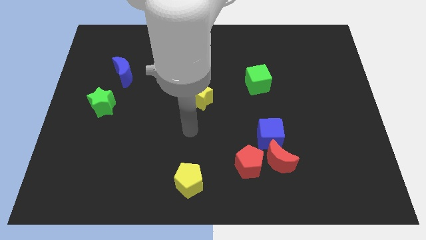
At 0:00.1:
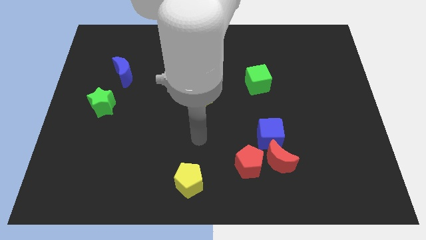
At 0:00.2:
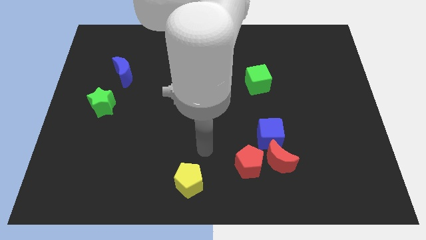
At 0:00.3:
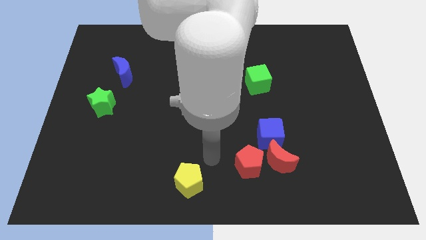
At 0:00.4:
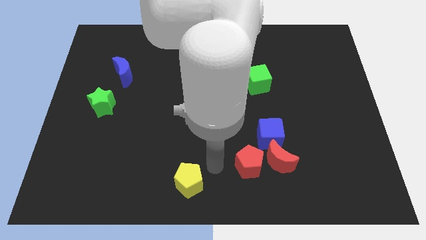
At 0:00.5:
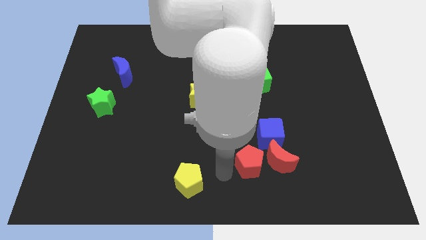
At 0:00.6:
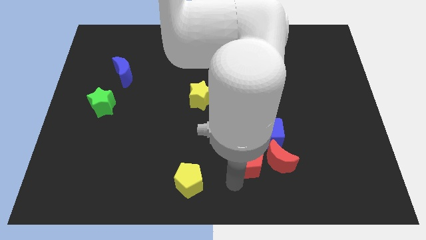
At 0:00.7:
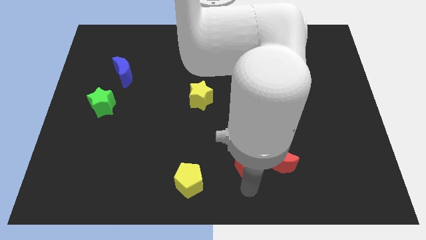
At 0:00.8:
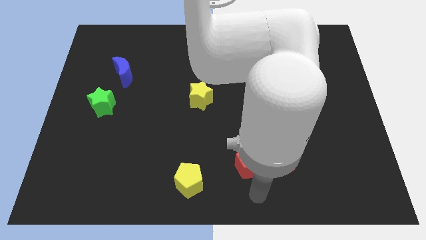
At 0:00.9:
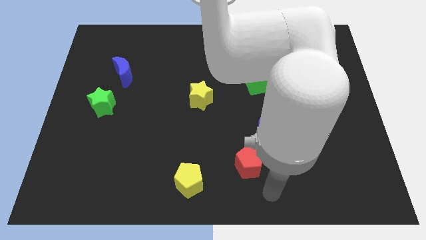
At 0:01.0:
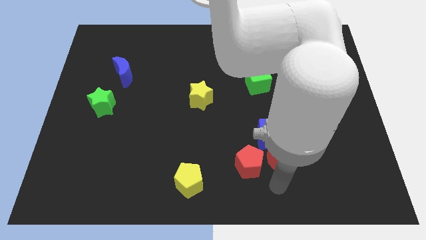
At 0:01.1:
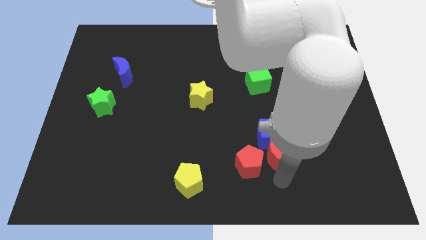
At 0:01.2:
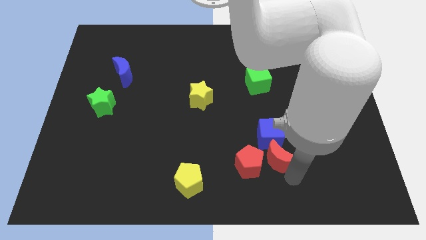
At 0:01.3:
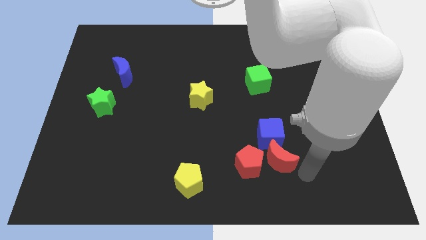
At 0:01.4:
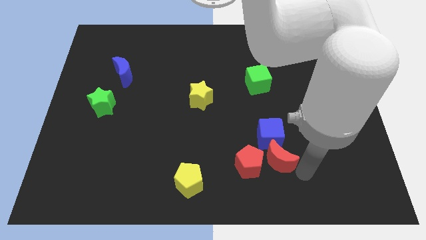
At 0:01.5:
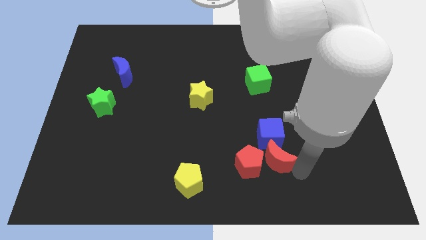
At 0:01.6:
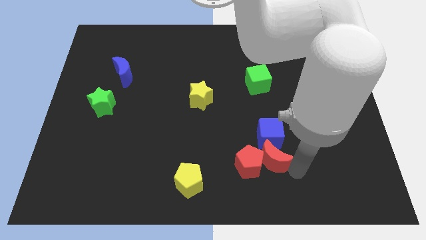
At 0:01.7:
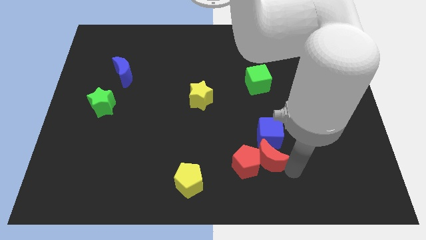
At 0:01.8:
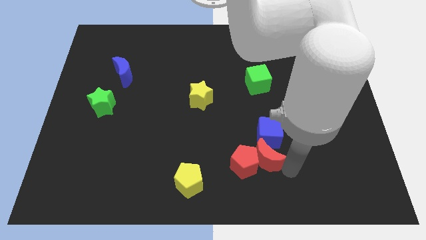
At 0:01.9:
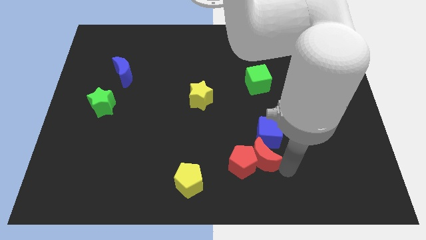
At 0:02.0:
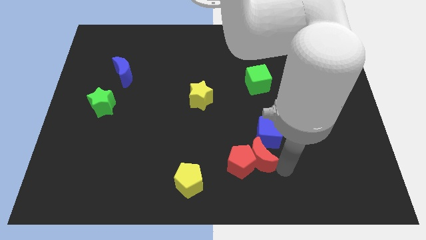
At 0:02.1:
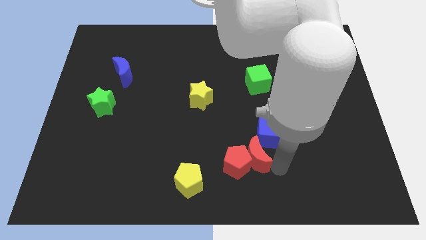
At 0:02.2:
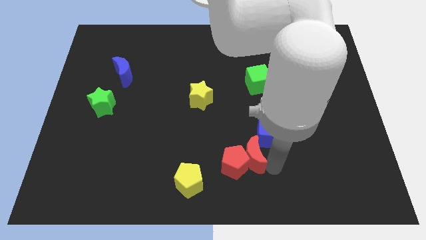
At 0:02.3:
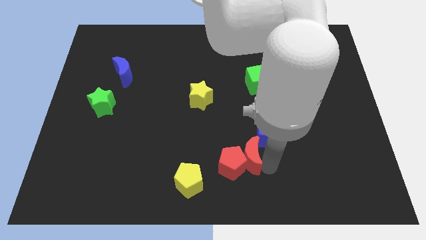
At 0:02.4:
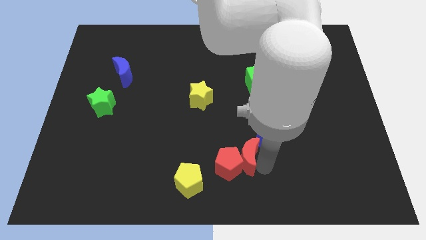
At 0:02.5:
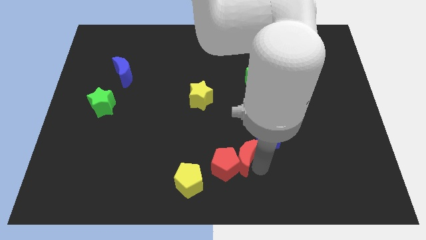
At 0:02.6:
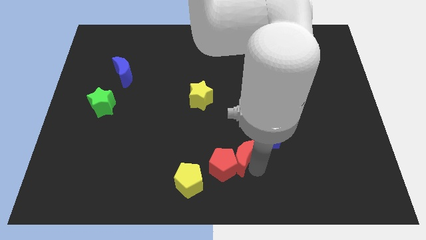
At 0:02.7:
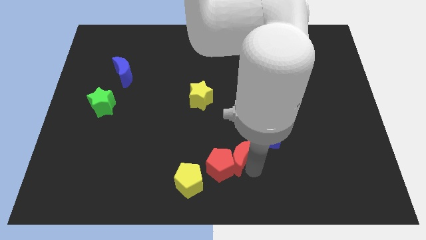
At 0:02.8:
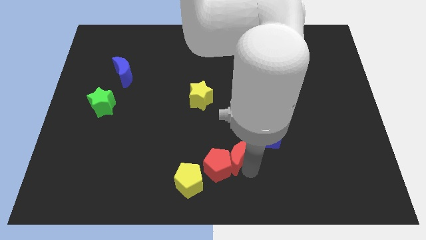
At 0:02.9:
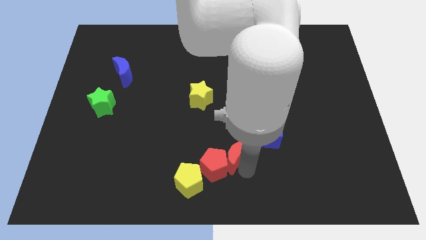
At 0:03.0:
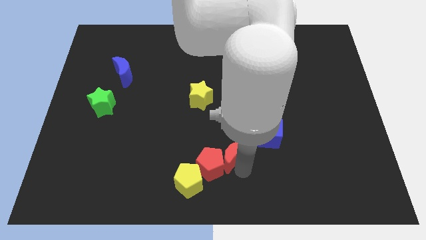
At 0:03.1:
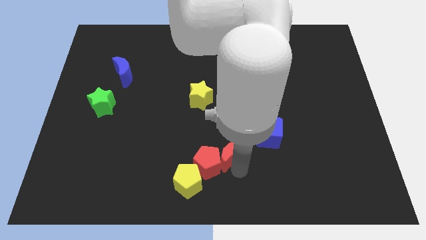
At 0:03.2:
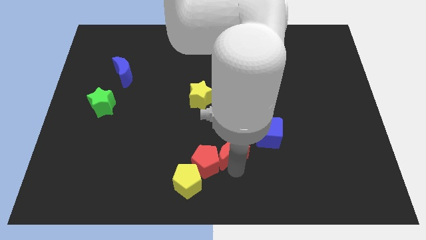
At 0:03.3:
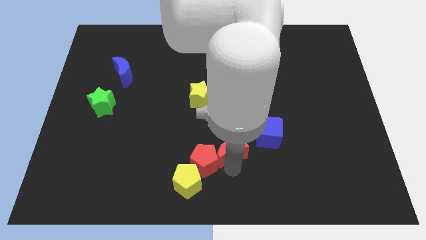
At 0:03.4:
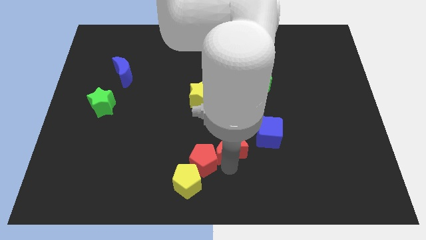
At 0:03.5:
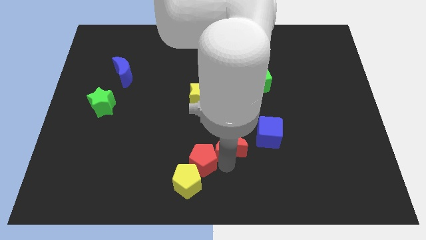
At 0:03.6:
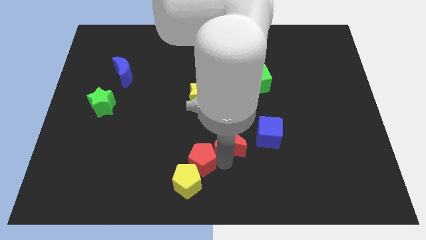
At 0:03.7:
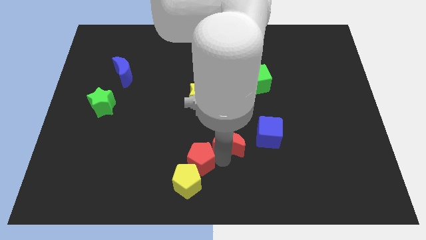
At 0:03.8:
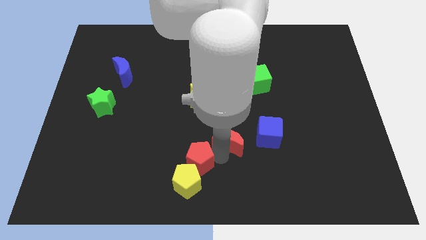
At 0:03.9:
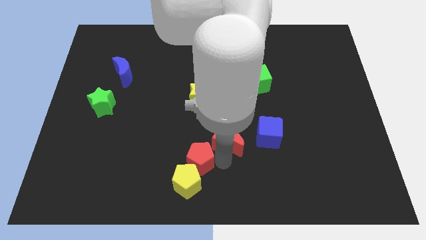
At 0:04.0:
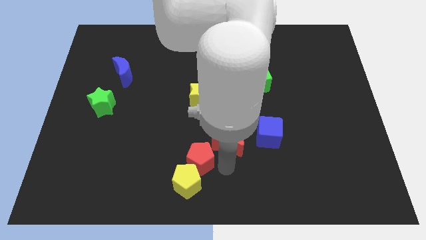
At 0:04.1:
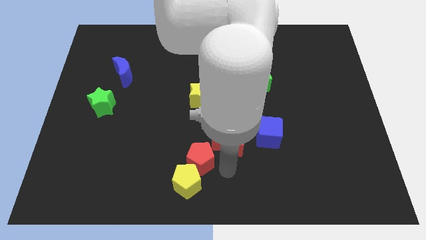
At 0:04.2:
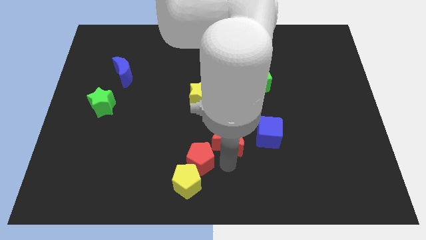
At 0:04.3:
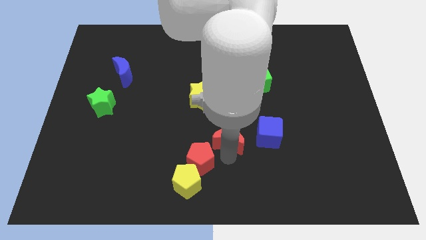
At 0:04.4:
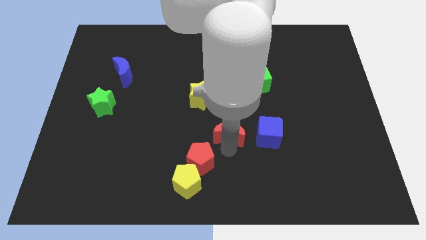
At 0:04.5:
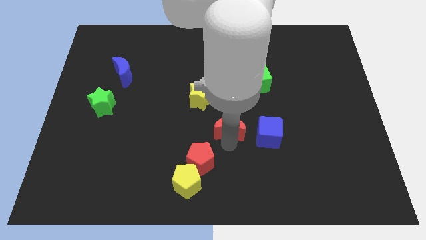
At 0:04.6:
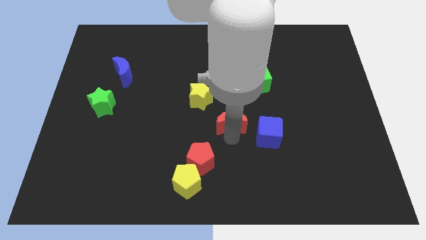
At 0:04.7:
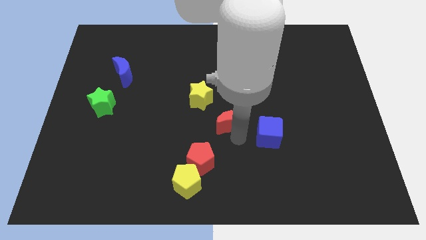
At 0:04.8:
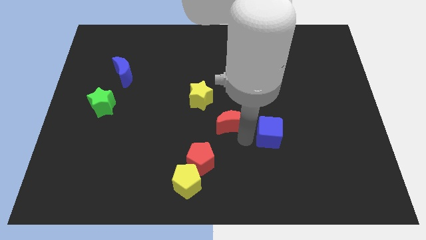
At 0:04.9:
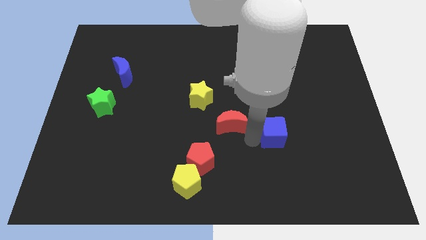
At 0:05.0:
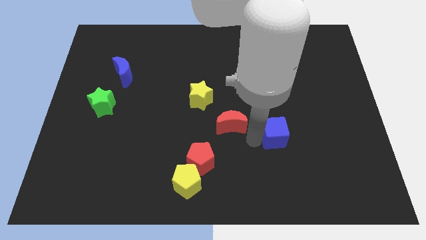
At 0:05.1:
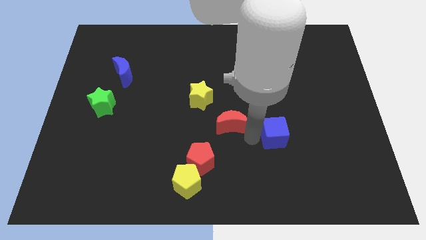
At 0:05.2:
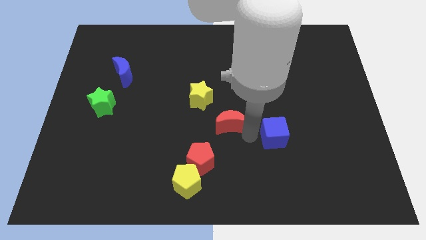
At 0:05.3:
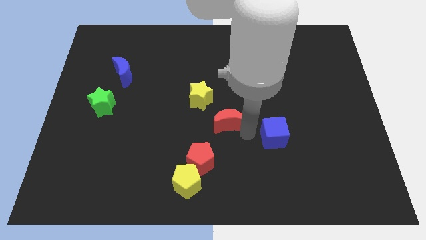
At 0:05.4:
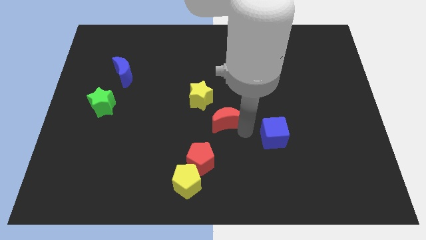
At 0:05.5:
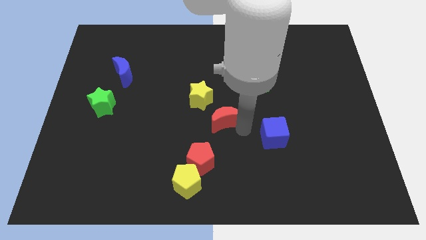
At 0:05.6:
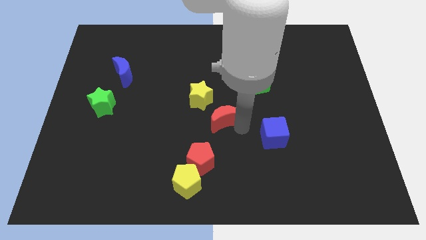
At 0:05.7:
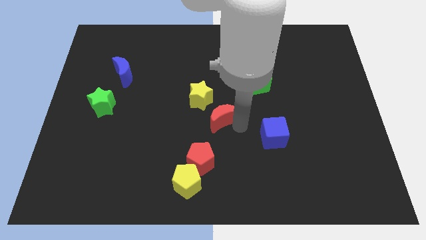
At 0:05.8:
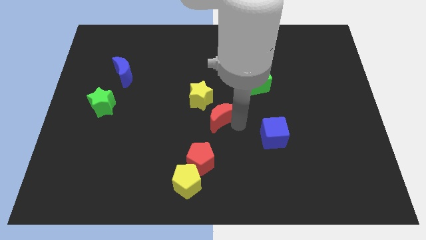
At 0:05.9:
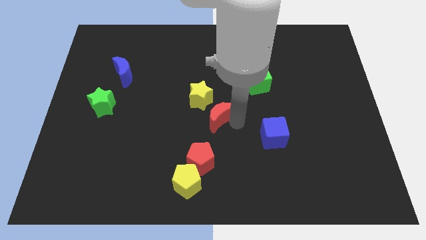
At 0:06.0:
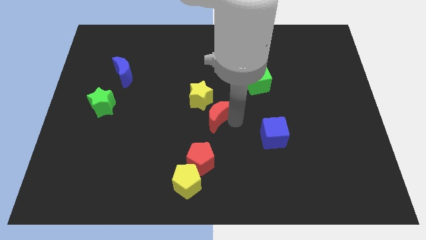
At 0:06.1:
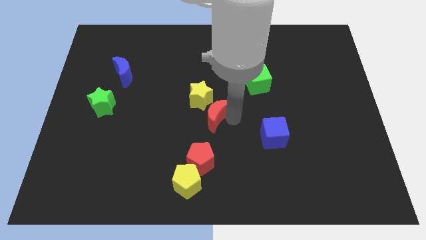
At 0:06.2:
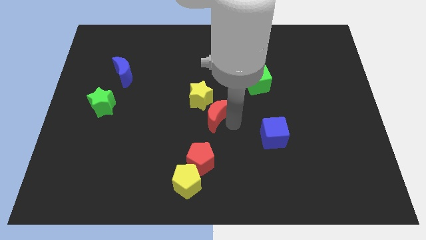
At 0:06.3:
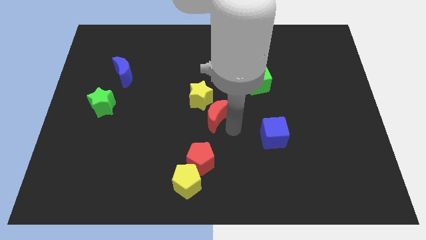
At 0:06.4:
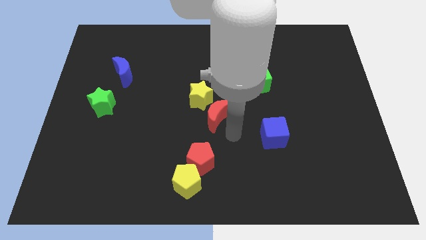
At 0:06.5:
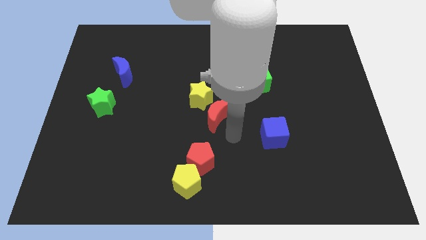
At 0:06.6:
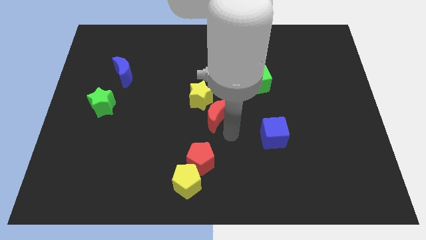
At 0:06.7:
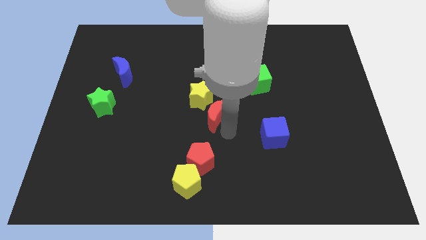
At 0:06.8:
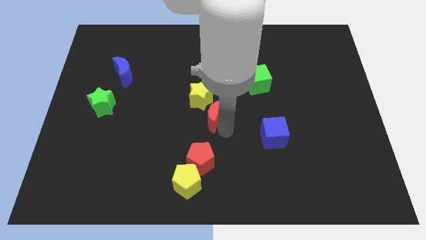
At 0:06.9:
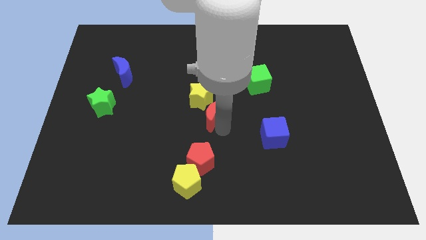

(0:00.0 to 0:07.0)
move the red moon next to the yellow star

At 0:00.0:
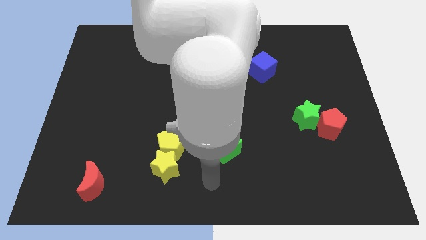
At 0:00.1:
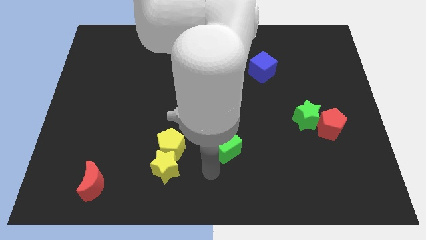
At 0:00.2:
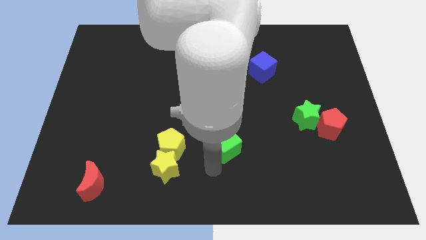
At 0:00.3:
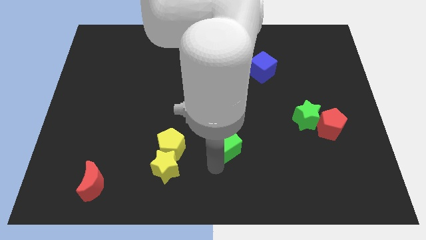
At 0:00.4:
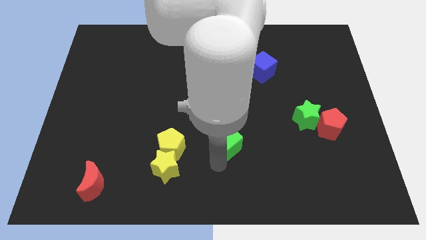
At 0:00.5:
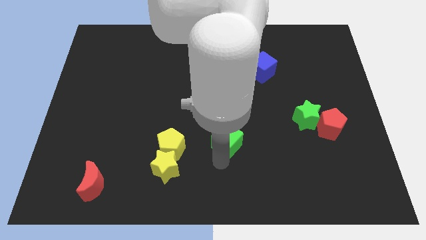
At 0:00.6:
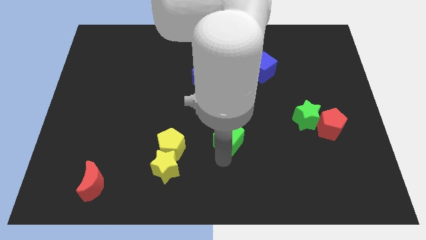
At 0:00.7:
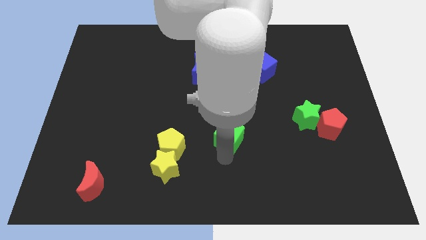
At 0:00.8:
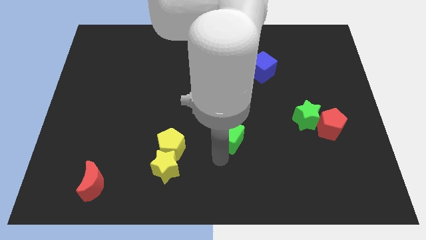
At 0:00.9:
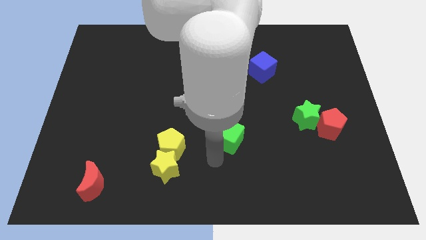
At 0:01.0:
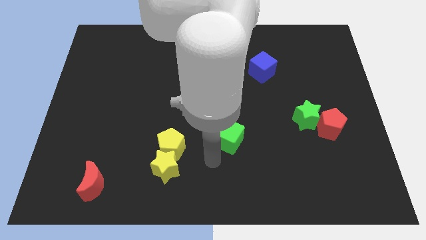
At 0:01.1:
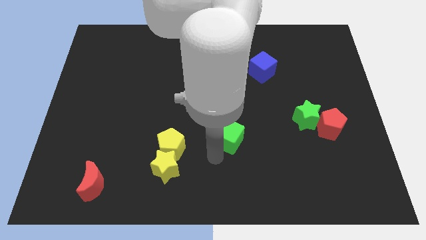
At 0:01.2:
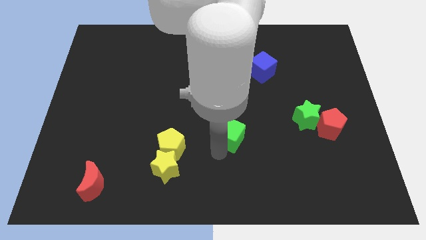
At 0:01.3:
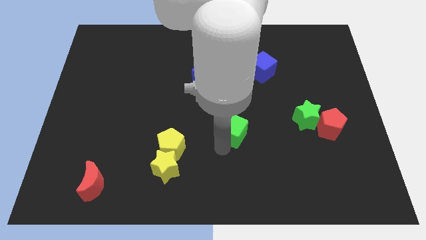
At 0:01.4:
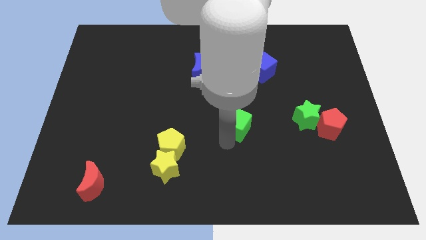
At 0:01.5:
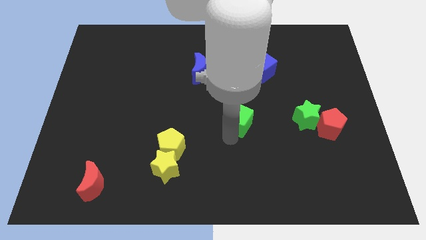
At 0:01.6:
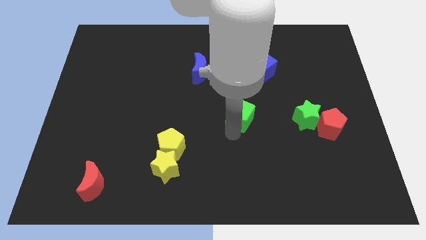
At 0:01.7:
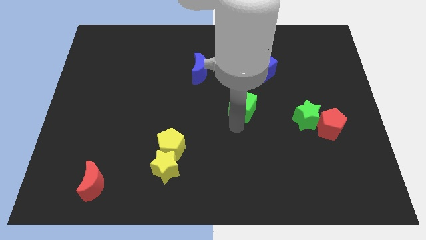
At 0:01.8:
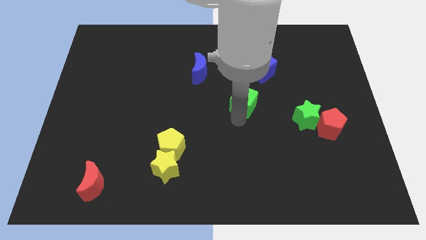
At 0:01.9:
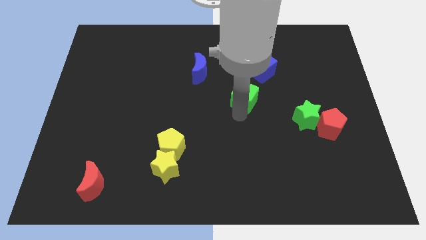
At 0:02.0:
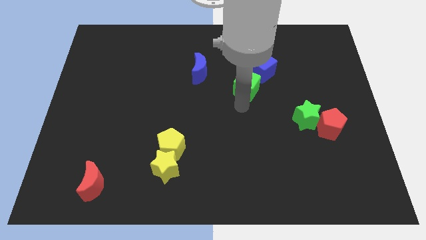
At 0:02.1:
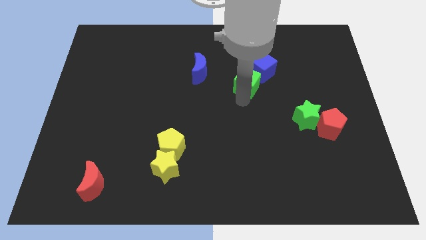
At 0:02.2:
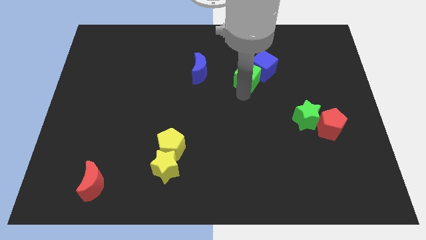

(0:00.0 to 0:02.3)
move the green cube towards the blue cube
